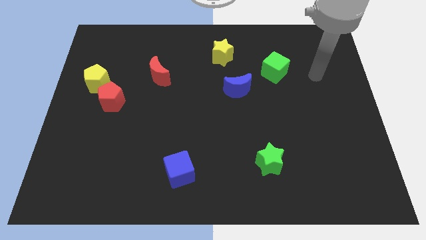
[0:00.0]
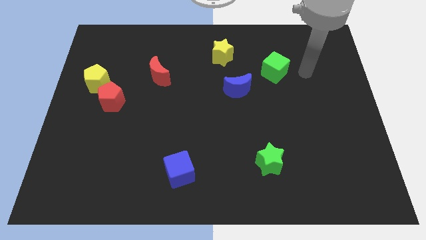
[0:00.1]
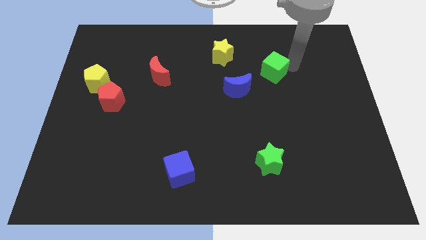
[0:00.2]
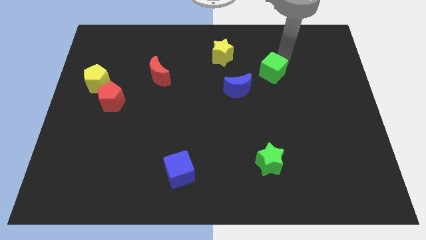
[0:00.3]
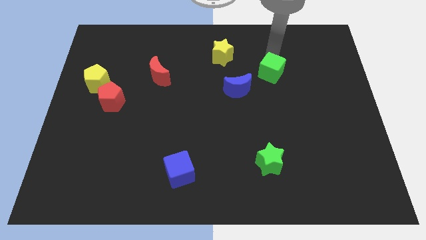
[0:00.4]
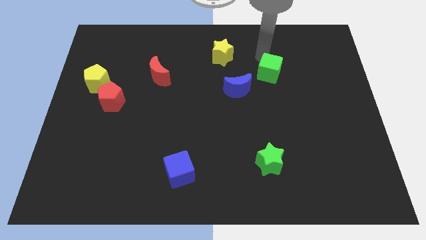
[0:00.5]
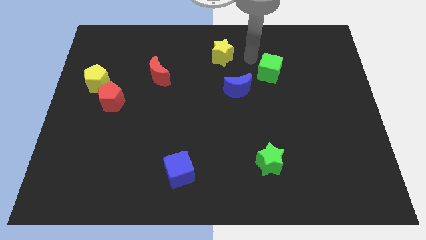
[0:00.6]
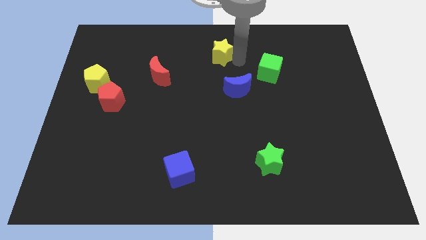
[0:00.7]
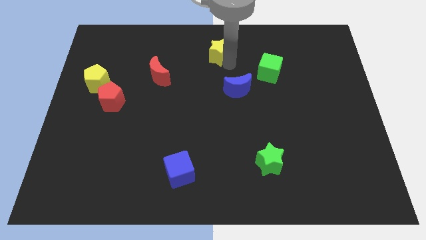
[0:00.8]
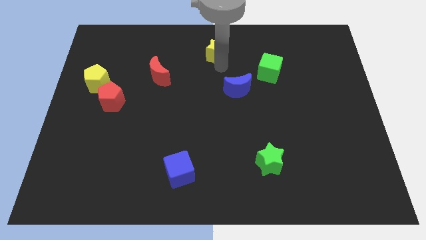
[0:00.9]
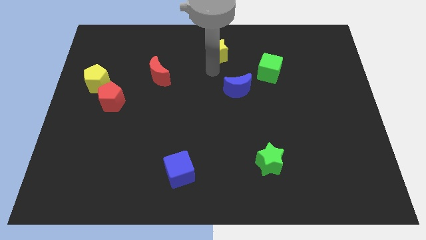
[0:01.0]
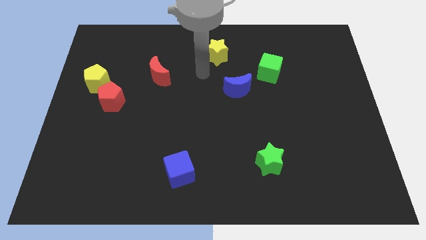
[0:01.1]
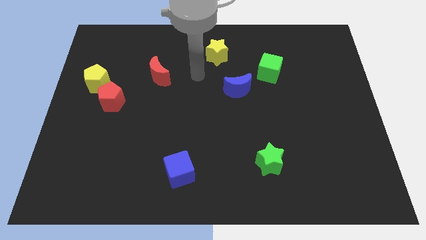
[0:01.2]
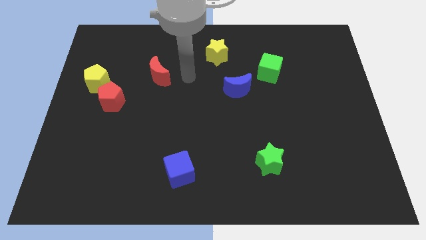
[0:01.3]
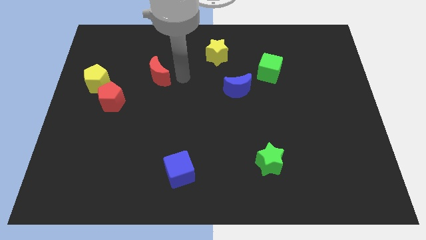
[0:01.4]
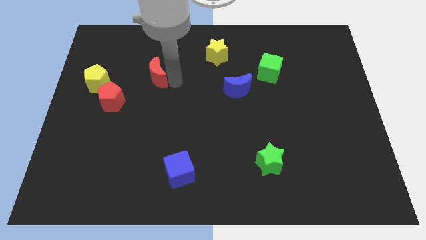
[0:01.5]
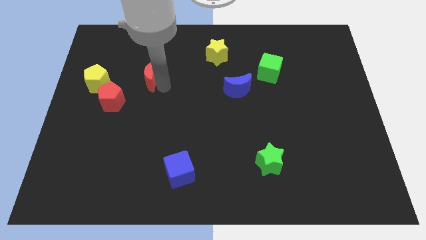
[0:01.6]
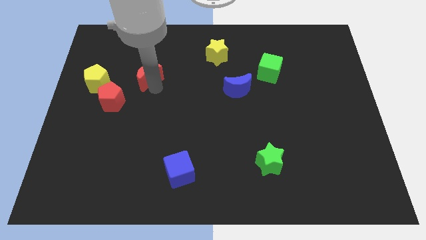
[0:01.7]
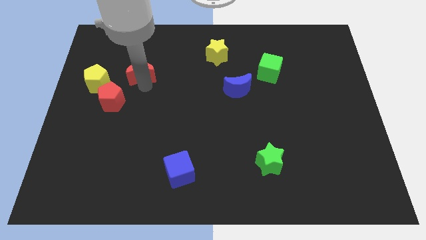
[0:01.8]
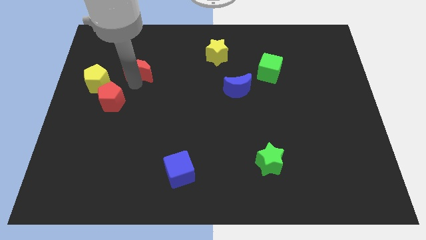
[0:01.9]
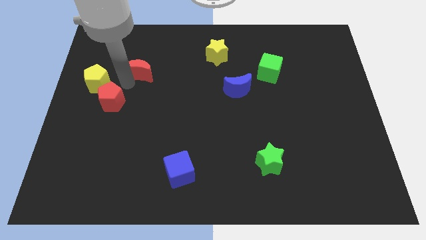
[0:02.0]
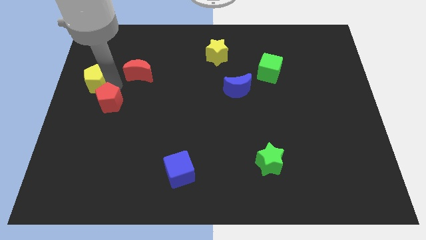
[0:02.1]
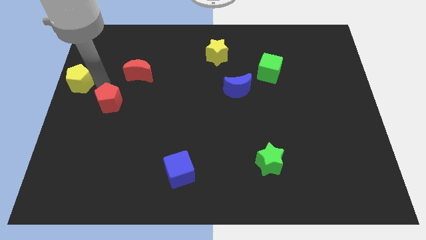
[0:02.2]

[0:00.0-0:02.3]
separate the red pentagon from the yellow pentagon

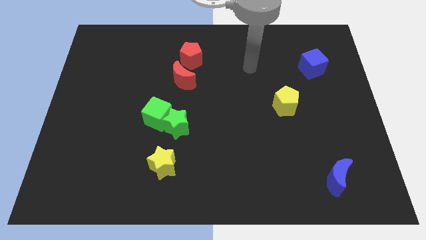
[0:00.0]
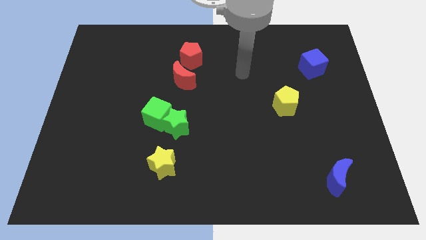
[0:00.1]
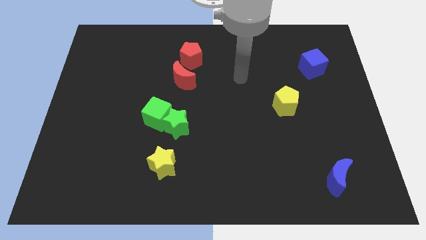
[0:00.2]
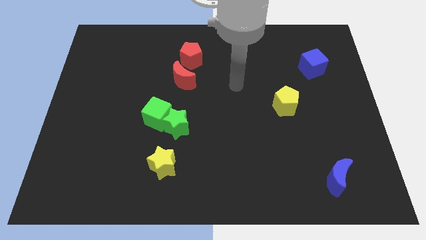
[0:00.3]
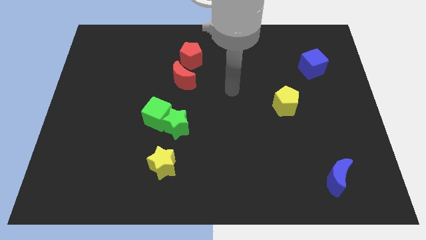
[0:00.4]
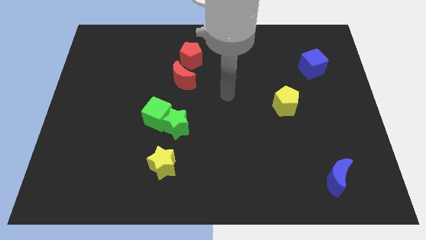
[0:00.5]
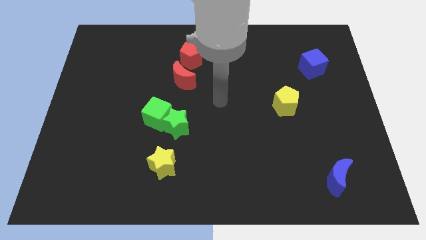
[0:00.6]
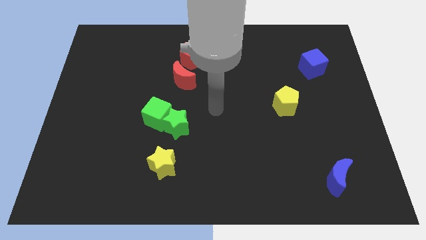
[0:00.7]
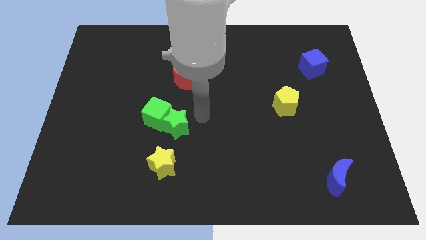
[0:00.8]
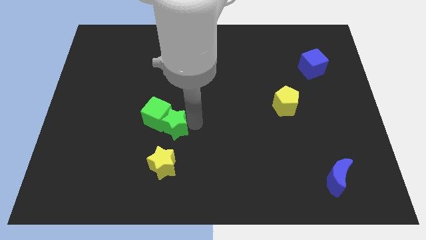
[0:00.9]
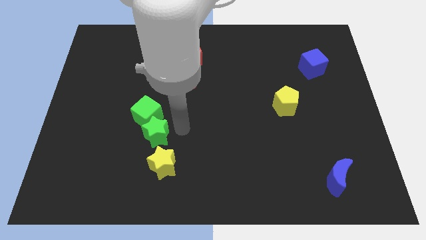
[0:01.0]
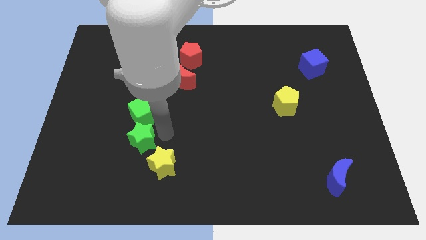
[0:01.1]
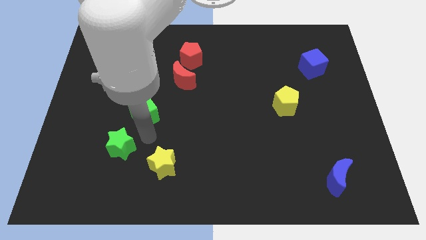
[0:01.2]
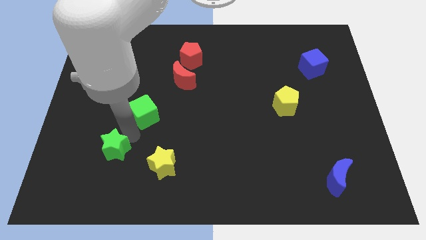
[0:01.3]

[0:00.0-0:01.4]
separate the green cube from the green star

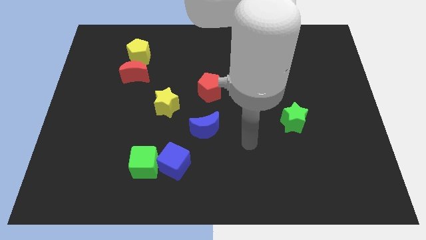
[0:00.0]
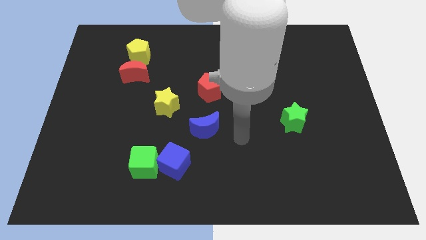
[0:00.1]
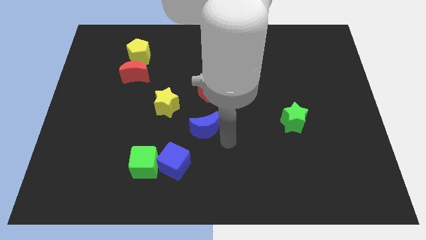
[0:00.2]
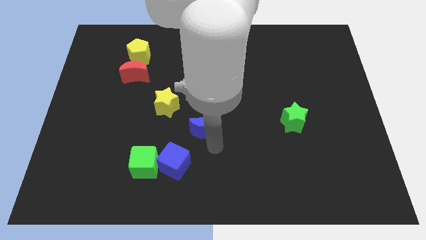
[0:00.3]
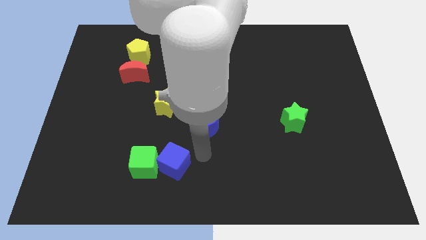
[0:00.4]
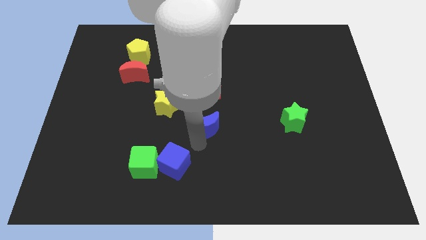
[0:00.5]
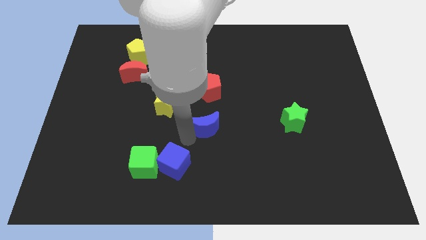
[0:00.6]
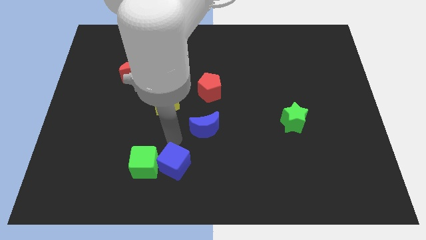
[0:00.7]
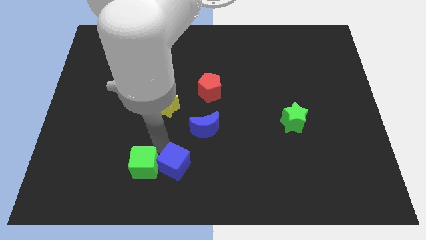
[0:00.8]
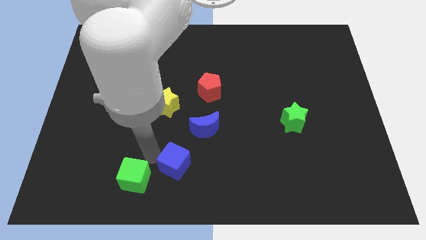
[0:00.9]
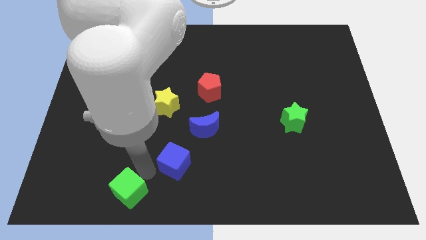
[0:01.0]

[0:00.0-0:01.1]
separate the blue cube from the green cube

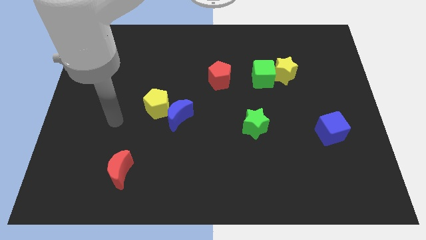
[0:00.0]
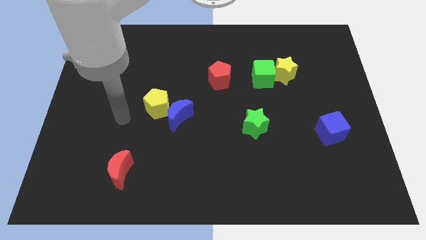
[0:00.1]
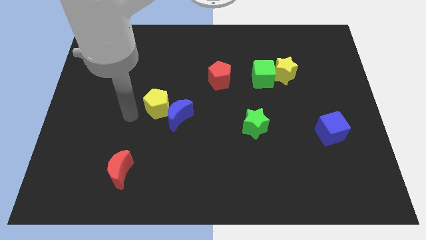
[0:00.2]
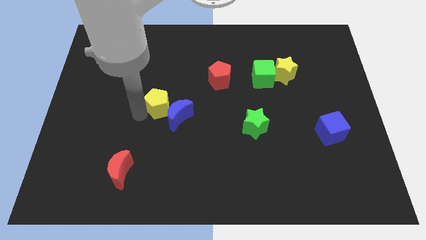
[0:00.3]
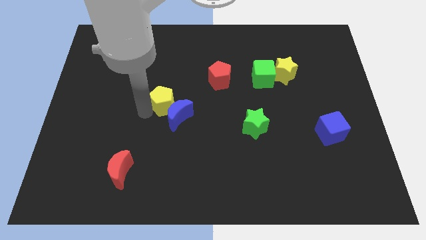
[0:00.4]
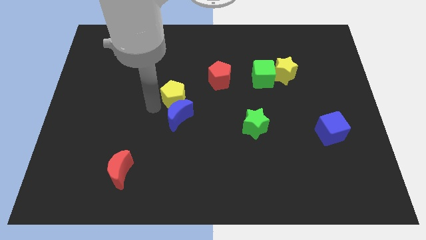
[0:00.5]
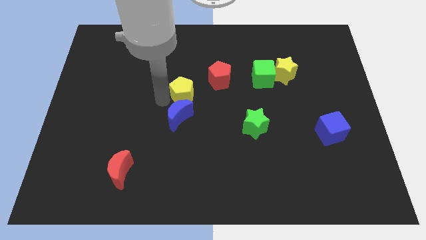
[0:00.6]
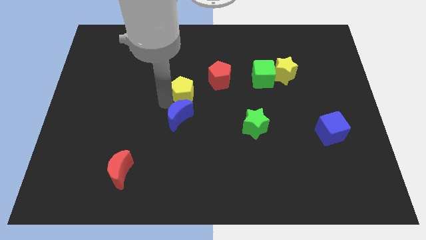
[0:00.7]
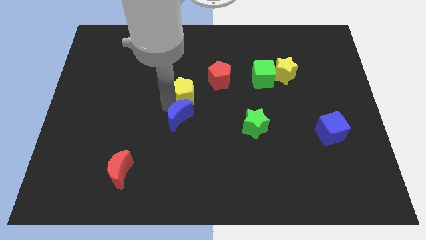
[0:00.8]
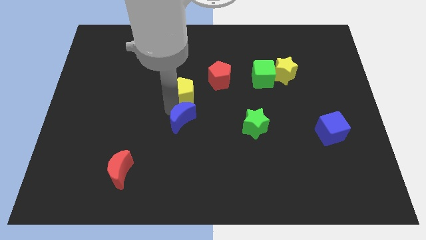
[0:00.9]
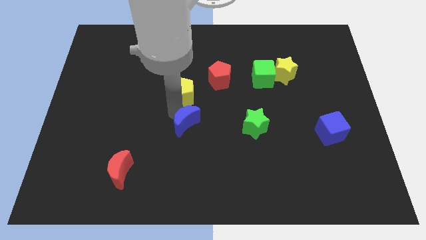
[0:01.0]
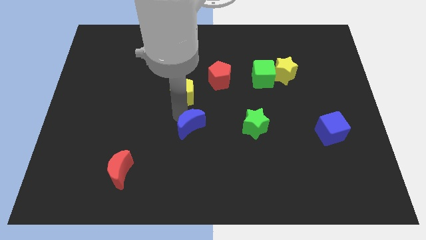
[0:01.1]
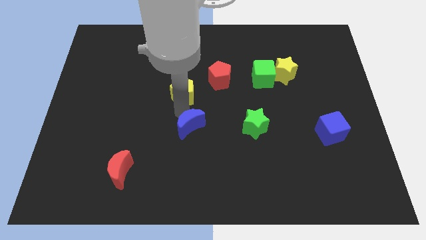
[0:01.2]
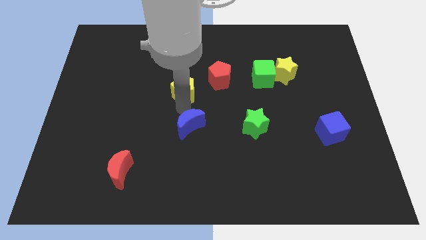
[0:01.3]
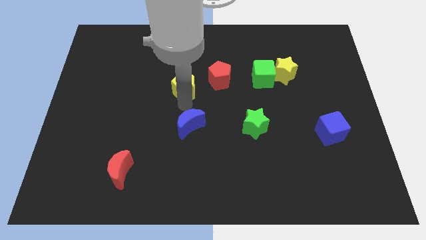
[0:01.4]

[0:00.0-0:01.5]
separate the blue moon from the yellow pentagon

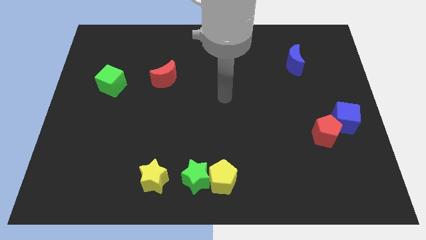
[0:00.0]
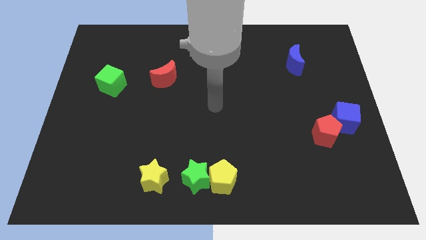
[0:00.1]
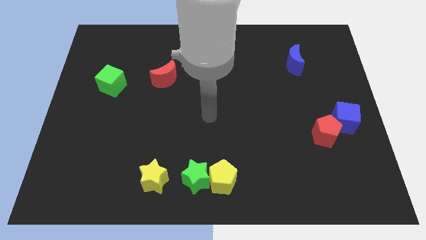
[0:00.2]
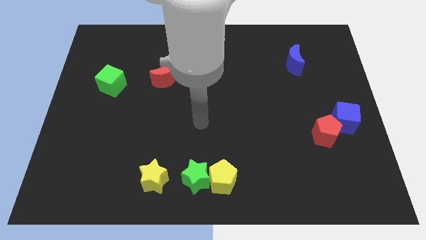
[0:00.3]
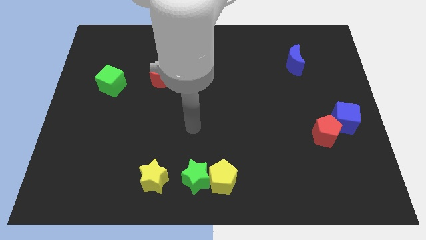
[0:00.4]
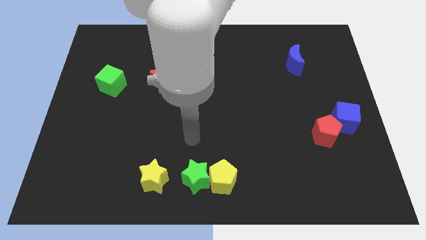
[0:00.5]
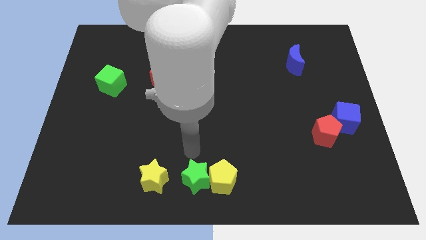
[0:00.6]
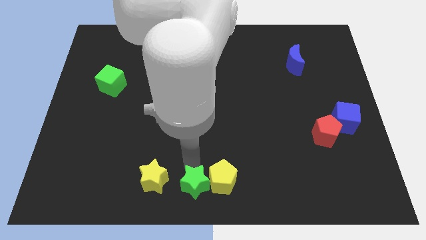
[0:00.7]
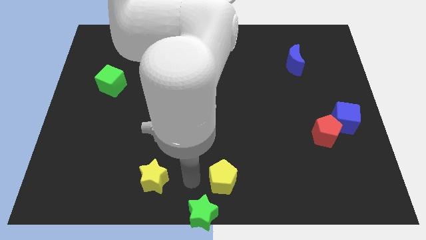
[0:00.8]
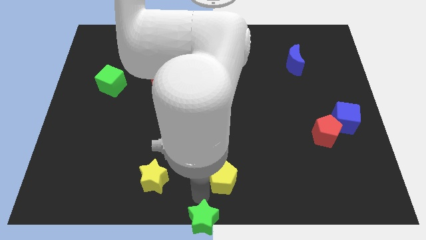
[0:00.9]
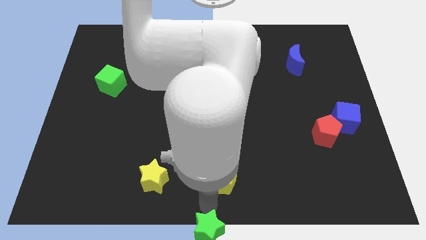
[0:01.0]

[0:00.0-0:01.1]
move the yellow pentagon away from the green star

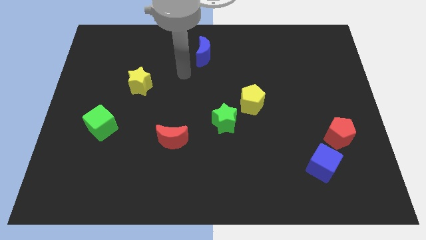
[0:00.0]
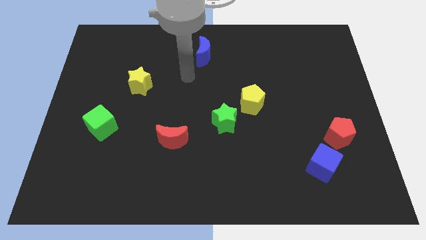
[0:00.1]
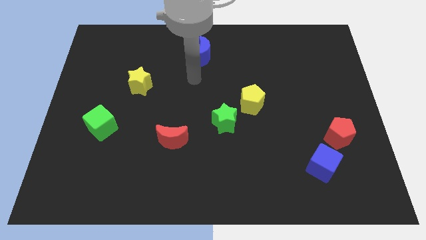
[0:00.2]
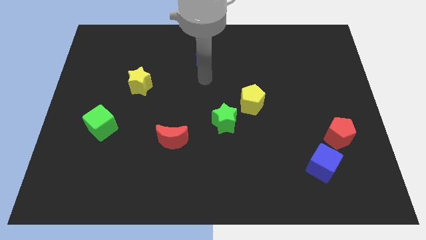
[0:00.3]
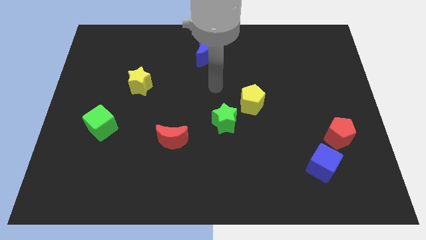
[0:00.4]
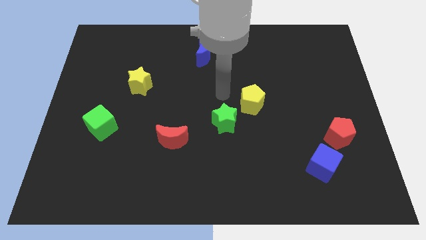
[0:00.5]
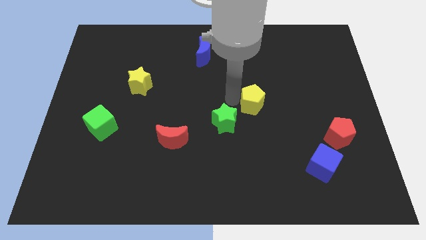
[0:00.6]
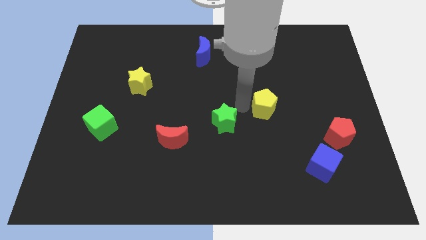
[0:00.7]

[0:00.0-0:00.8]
pull the green star apart from the yellow pentagon

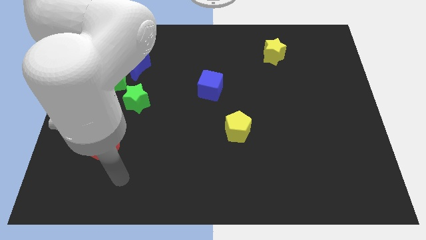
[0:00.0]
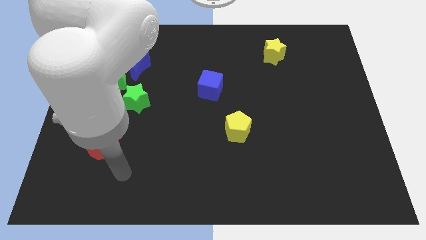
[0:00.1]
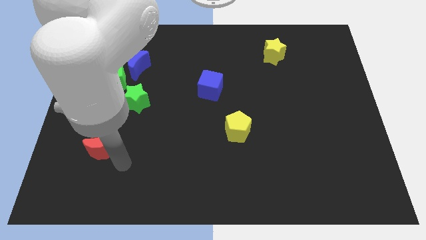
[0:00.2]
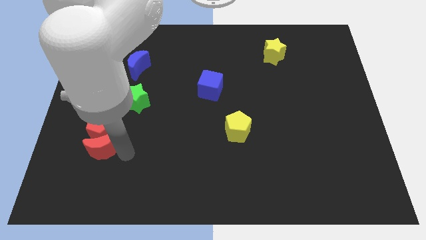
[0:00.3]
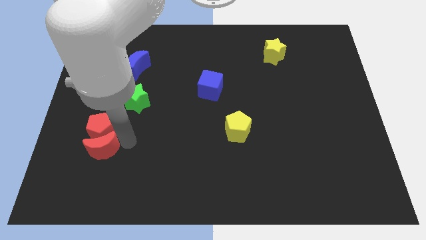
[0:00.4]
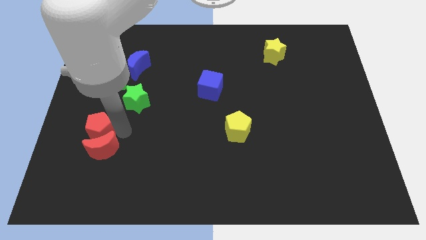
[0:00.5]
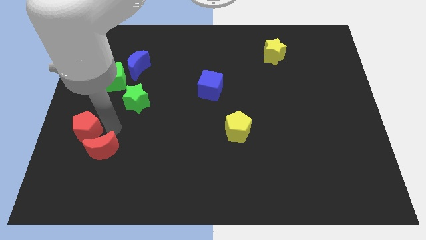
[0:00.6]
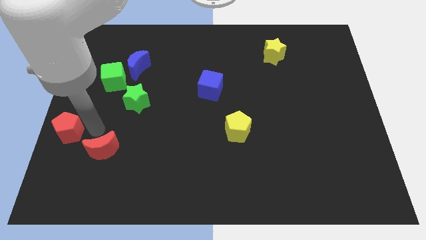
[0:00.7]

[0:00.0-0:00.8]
separate the red moon from the red pentagon
